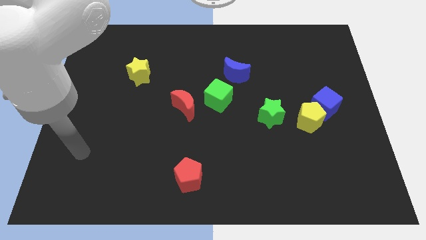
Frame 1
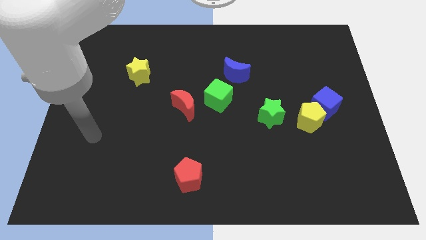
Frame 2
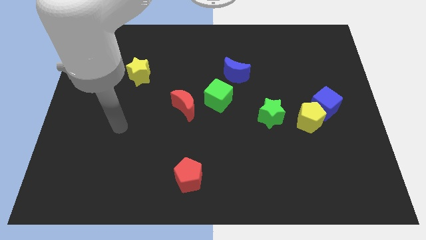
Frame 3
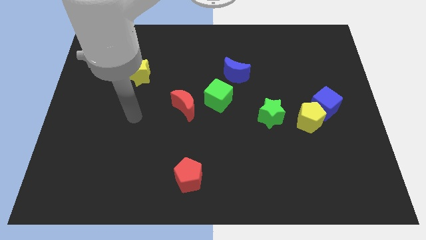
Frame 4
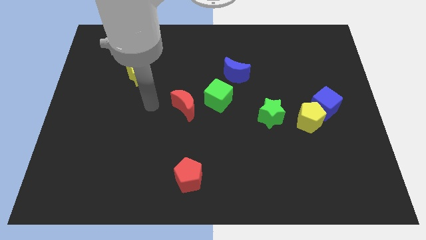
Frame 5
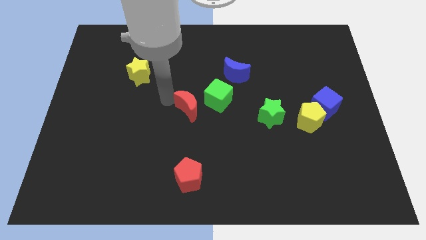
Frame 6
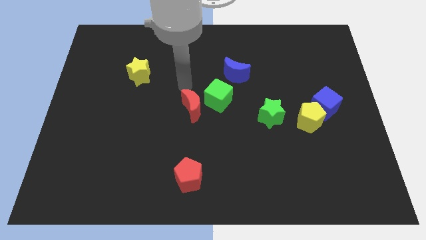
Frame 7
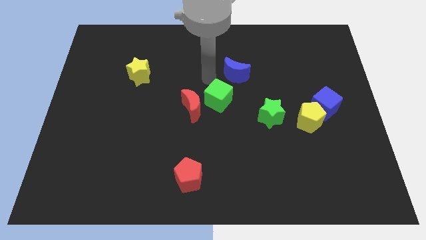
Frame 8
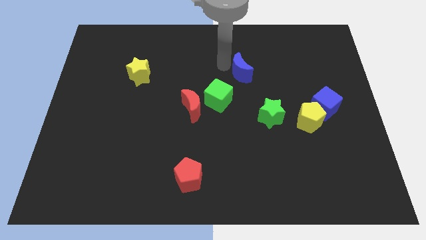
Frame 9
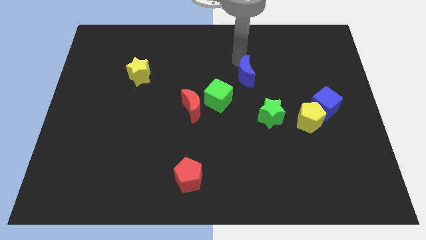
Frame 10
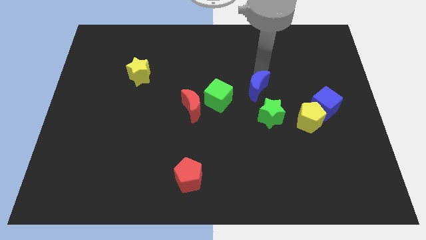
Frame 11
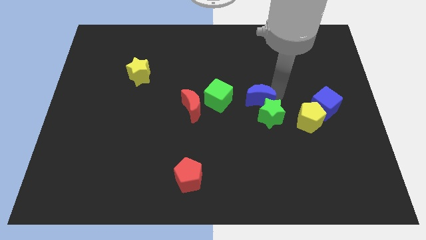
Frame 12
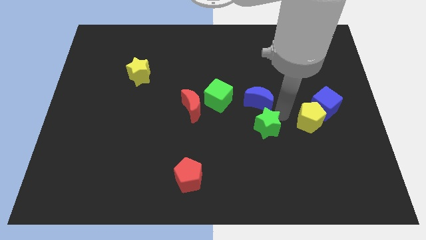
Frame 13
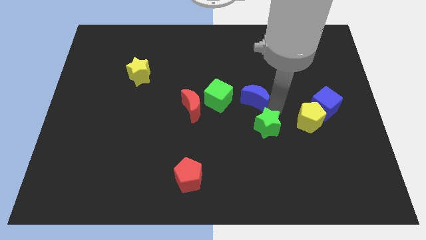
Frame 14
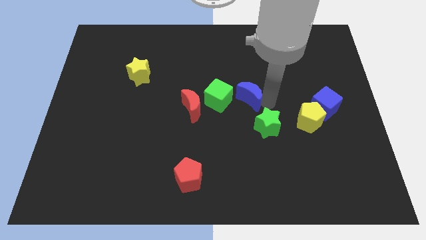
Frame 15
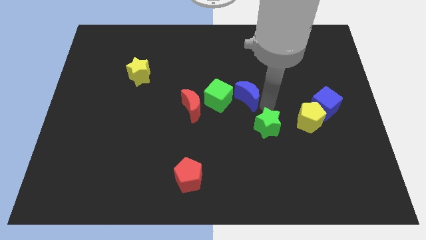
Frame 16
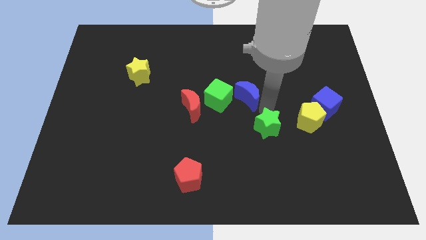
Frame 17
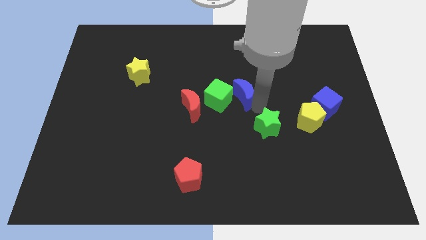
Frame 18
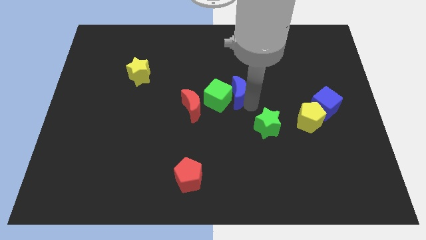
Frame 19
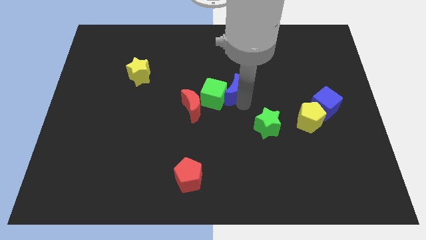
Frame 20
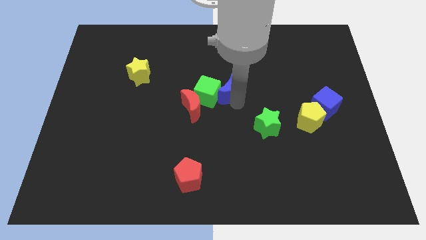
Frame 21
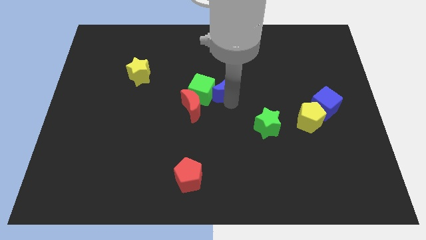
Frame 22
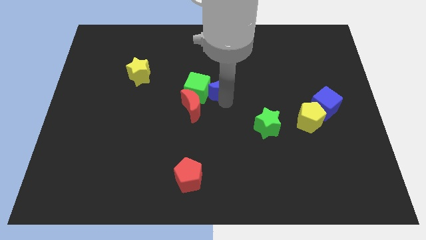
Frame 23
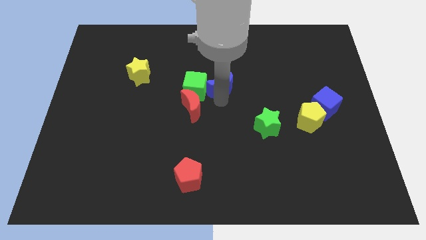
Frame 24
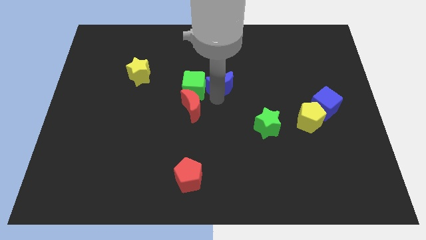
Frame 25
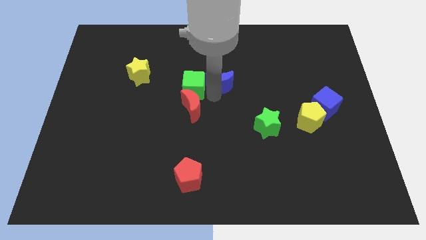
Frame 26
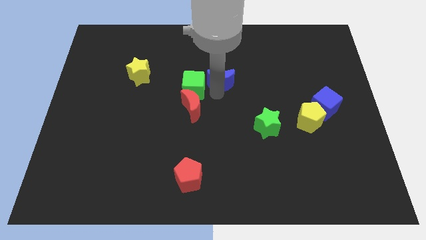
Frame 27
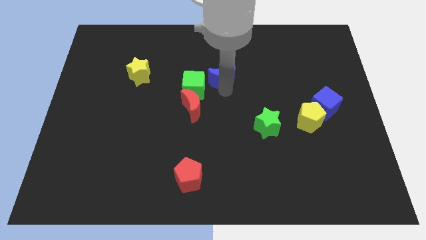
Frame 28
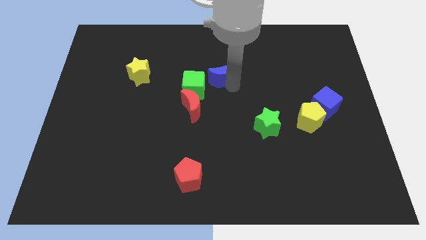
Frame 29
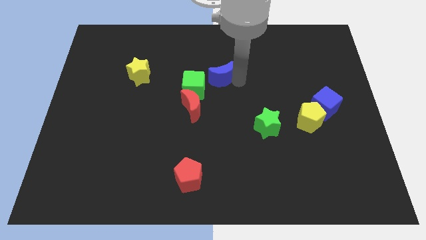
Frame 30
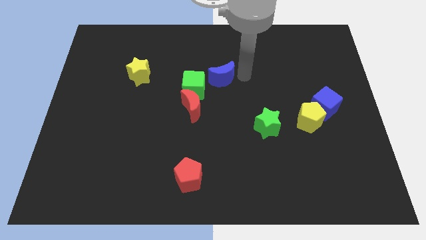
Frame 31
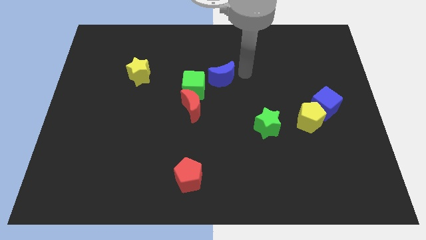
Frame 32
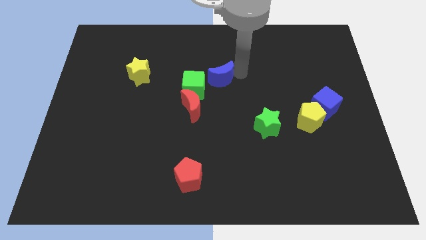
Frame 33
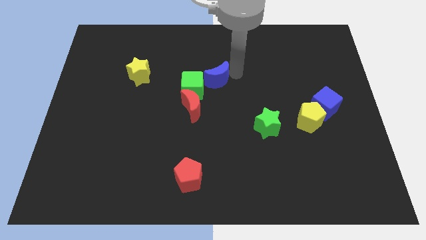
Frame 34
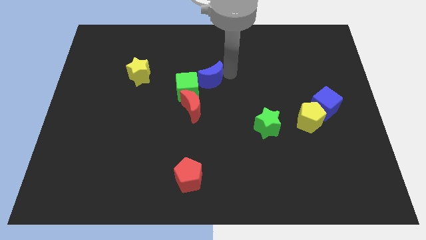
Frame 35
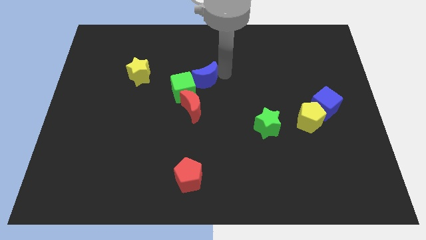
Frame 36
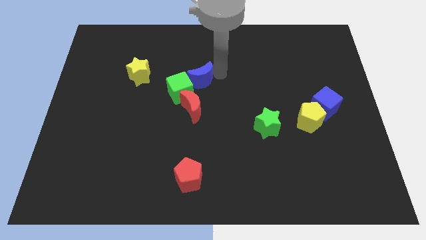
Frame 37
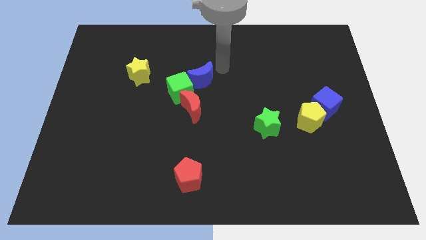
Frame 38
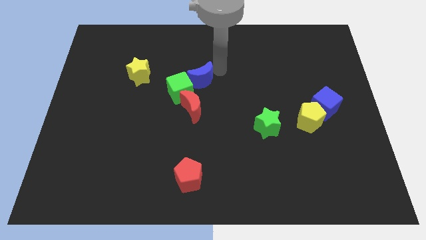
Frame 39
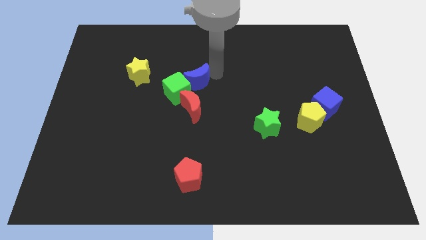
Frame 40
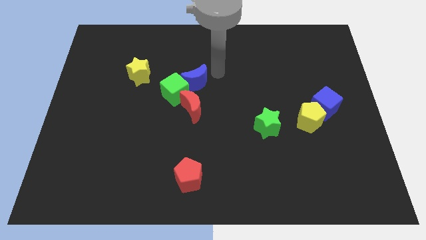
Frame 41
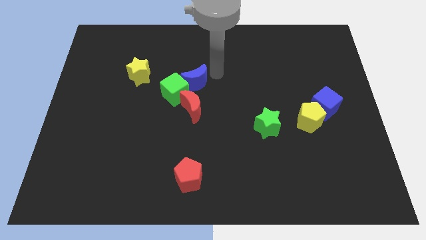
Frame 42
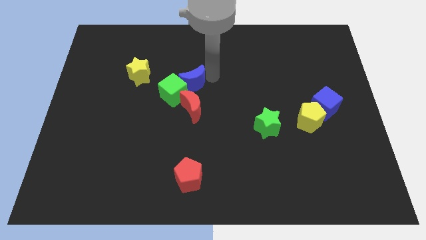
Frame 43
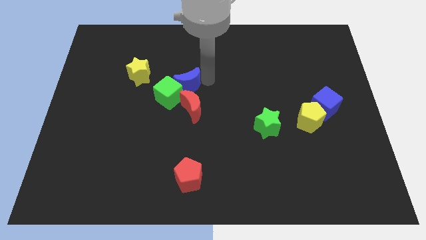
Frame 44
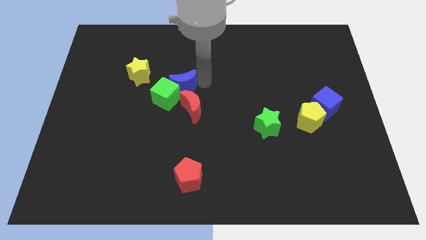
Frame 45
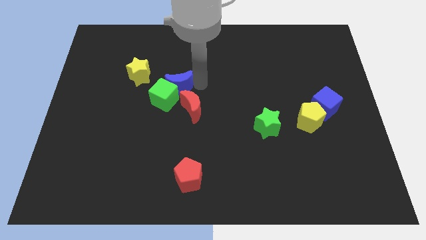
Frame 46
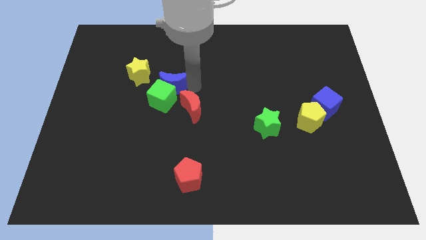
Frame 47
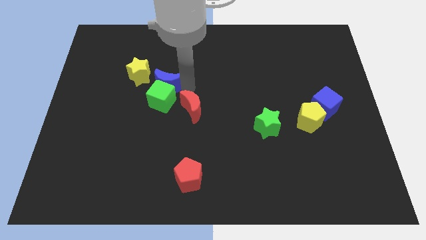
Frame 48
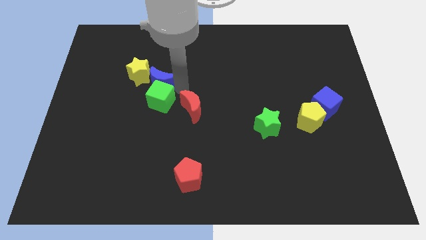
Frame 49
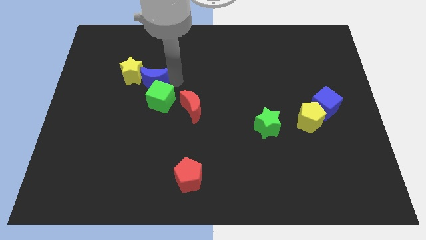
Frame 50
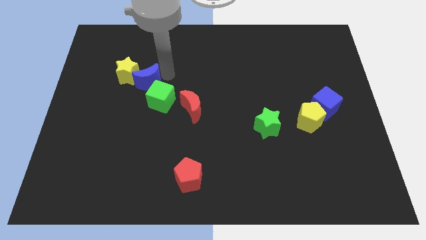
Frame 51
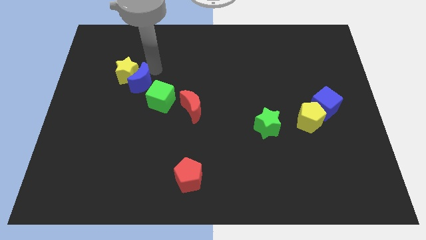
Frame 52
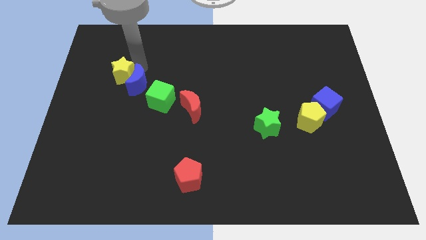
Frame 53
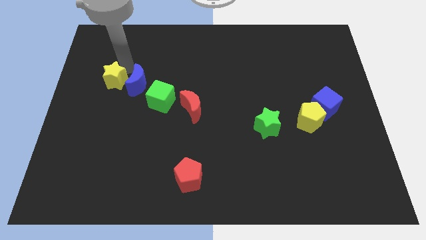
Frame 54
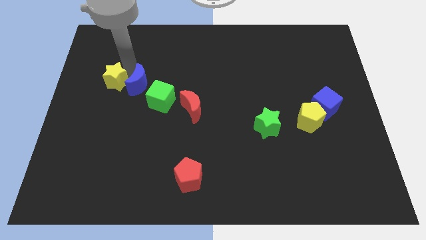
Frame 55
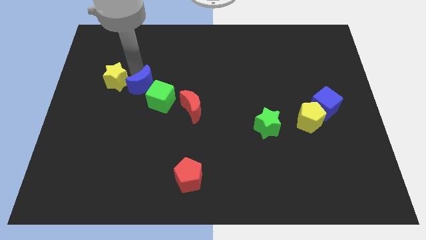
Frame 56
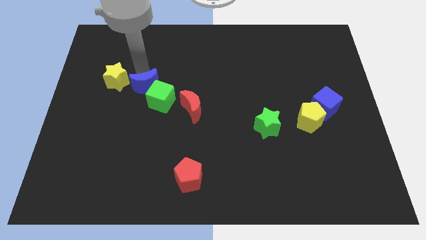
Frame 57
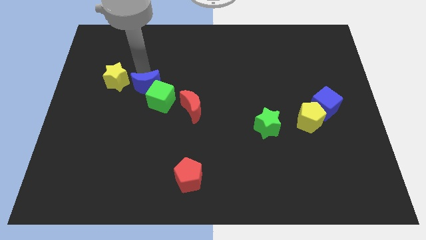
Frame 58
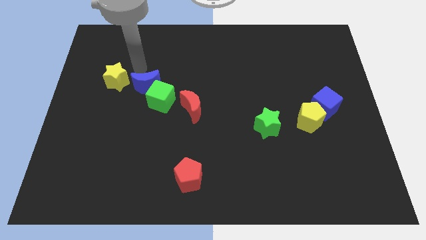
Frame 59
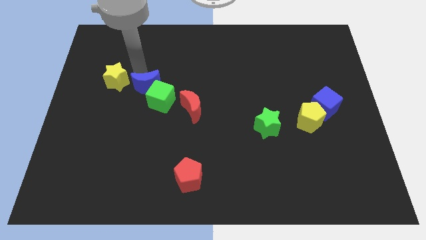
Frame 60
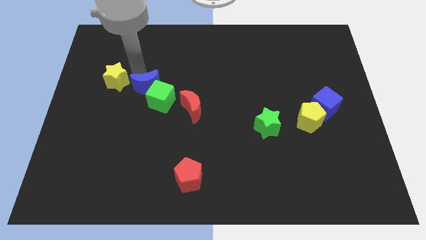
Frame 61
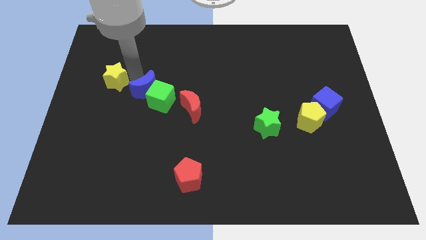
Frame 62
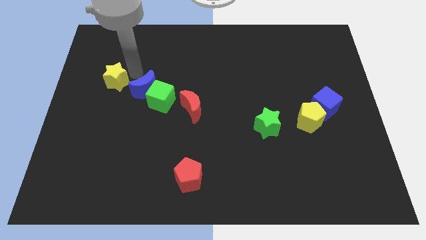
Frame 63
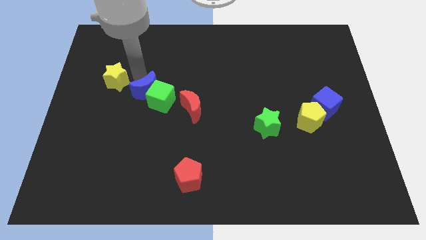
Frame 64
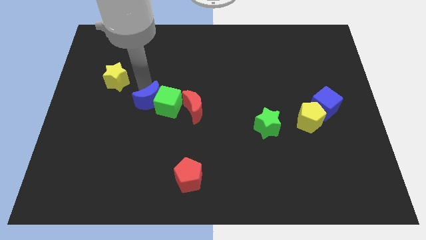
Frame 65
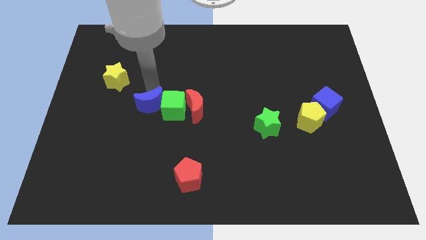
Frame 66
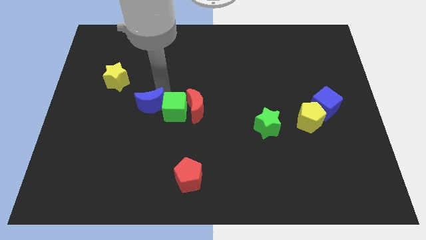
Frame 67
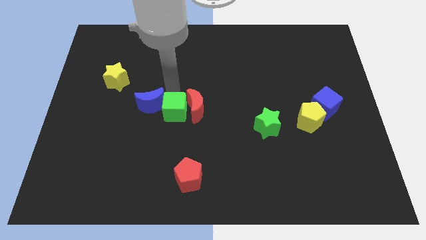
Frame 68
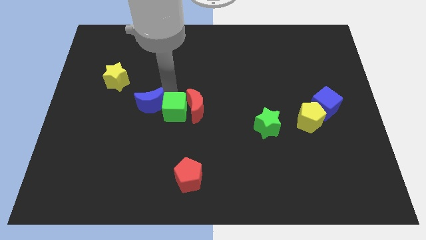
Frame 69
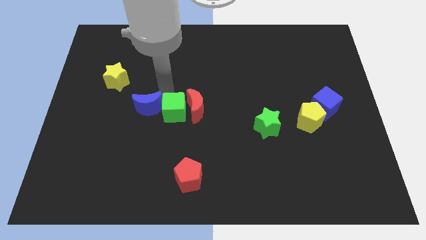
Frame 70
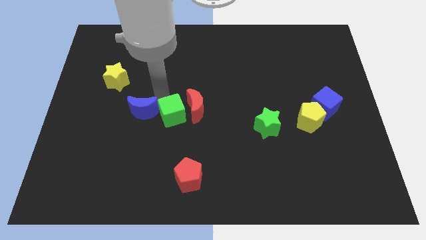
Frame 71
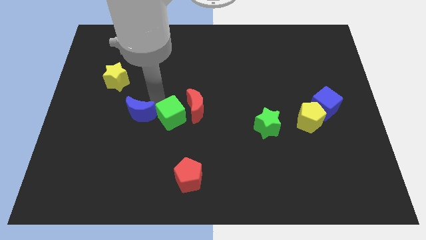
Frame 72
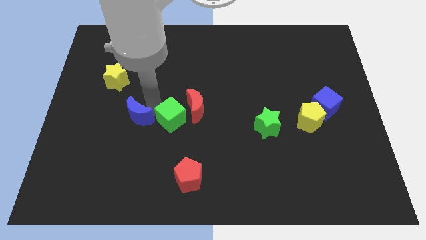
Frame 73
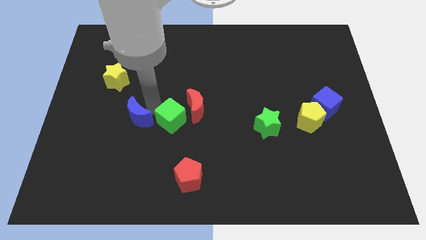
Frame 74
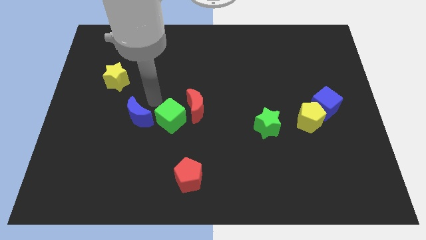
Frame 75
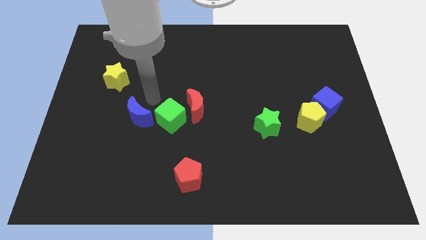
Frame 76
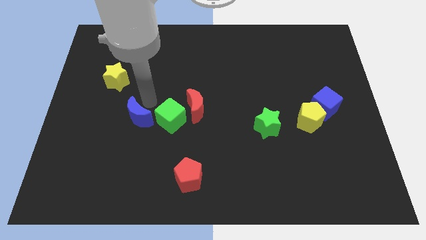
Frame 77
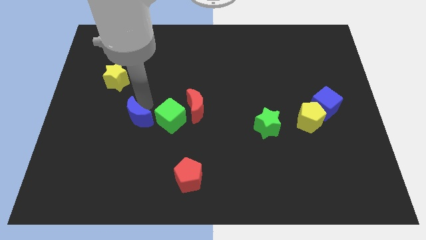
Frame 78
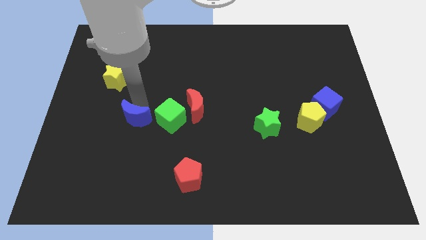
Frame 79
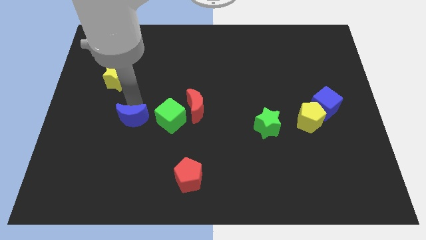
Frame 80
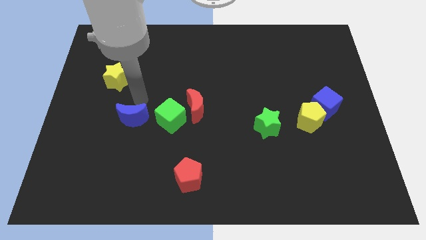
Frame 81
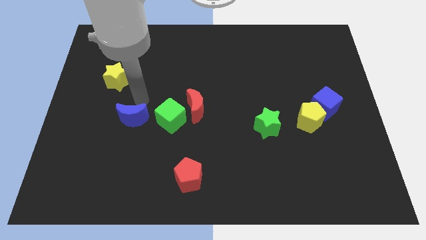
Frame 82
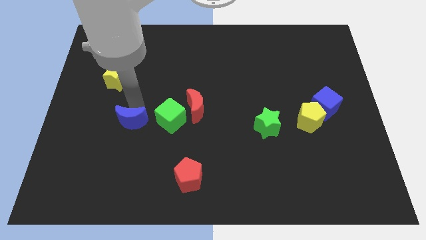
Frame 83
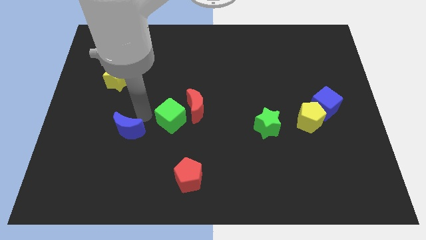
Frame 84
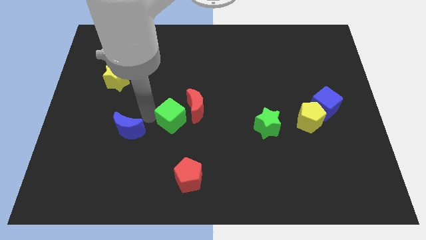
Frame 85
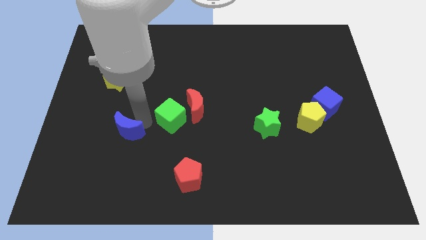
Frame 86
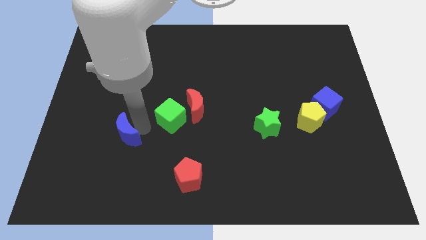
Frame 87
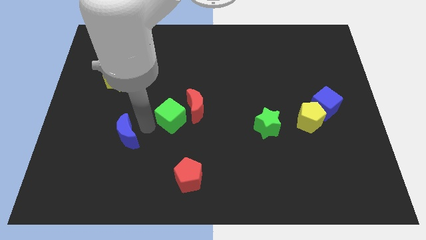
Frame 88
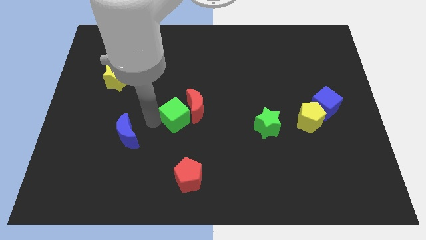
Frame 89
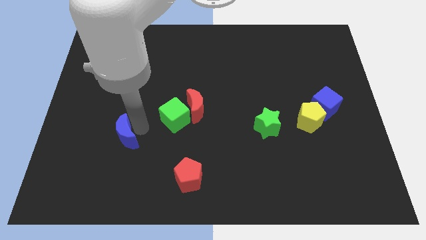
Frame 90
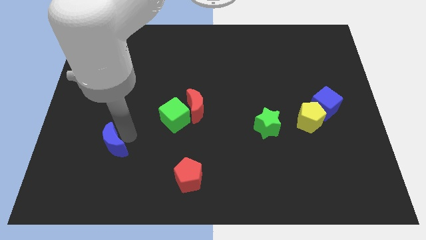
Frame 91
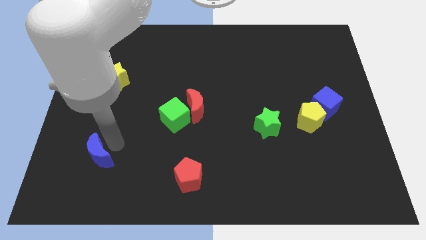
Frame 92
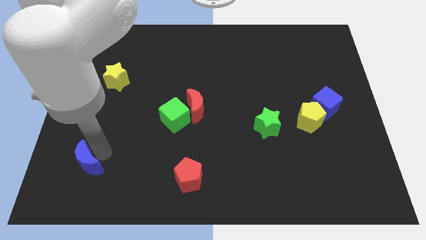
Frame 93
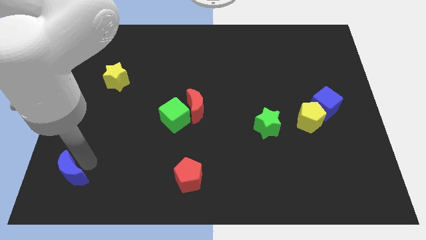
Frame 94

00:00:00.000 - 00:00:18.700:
move the blue moon to the bottom left corner
